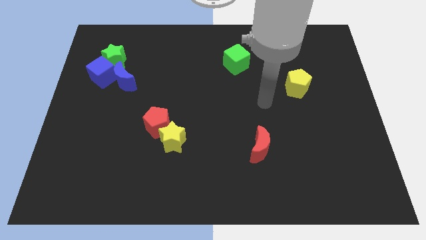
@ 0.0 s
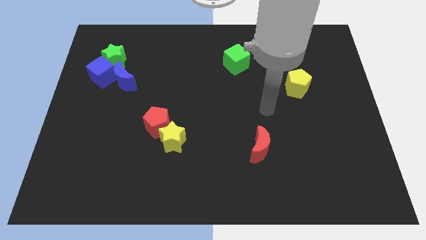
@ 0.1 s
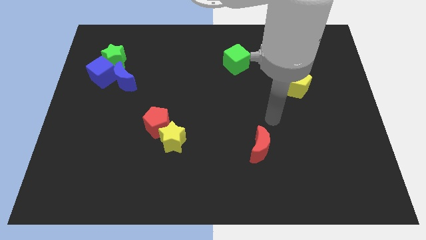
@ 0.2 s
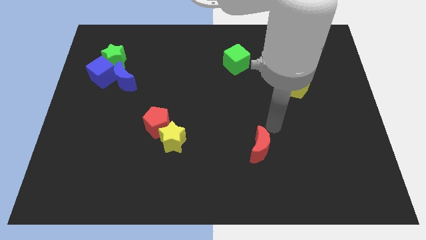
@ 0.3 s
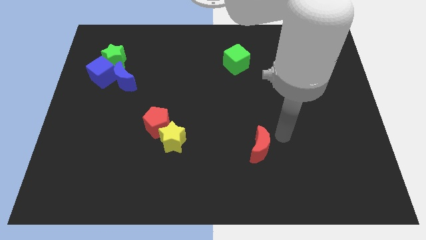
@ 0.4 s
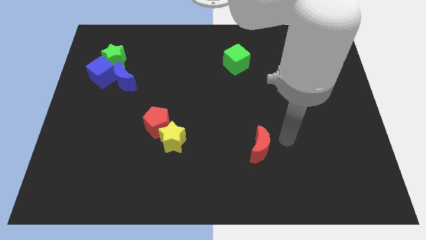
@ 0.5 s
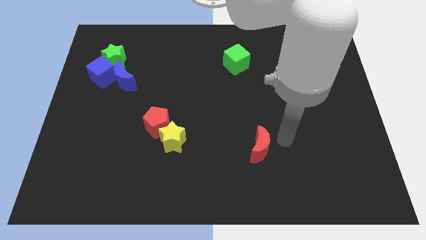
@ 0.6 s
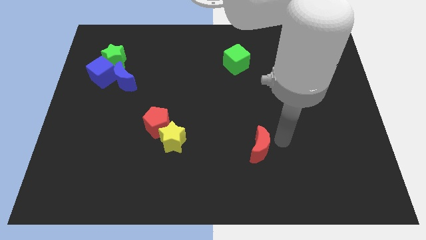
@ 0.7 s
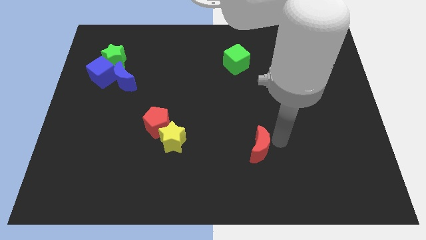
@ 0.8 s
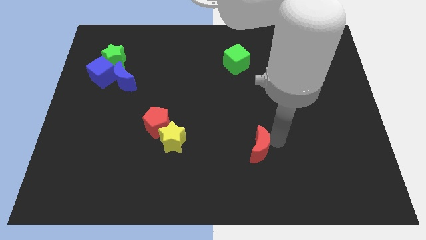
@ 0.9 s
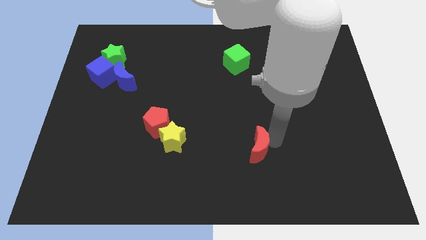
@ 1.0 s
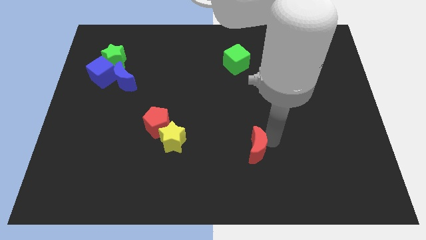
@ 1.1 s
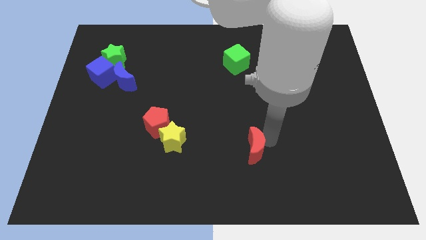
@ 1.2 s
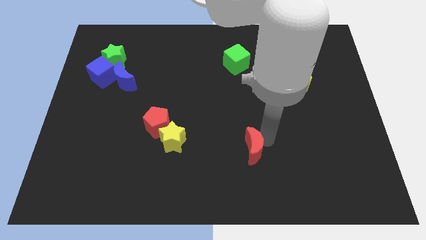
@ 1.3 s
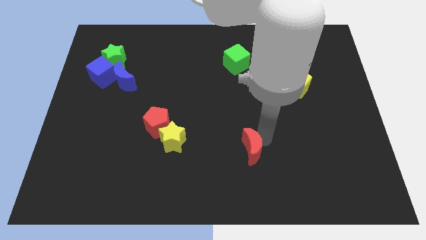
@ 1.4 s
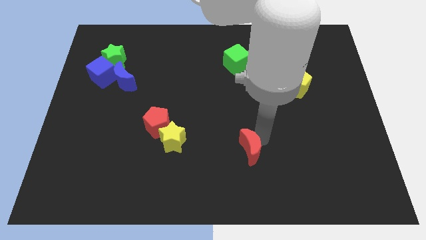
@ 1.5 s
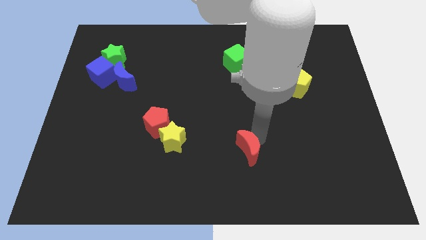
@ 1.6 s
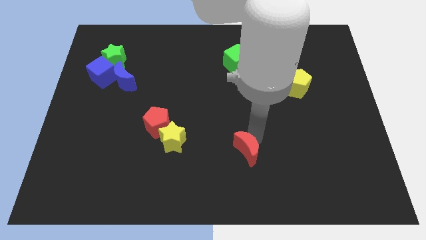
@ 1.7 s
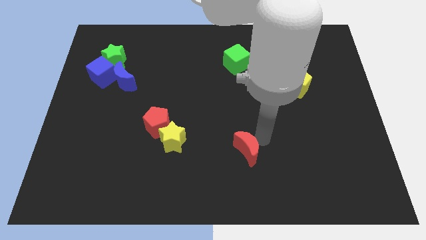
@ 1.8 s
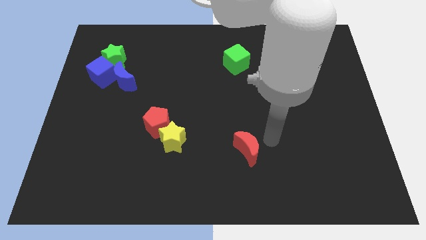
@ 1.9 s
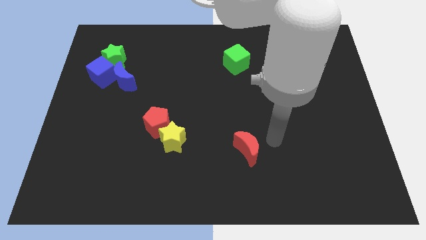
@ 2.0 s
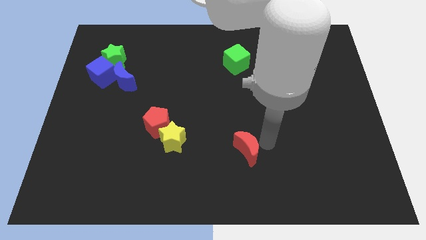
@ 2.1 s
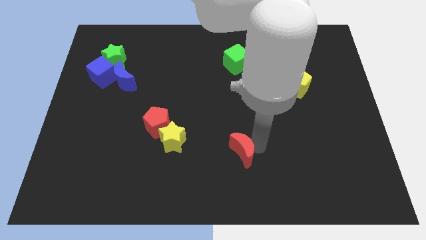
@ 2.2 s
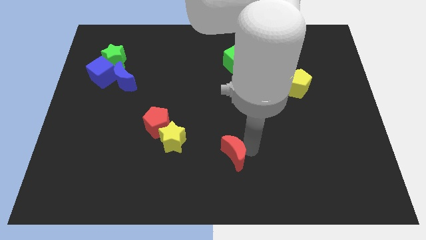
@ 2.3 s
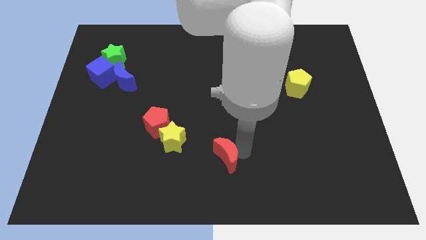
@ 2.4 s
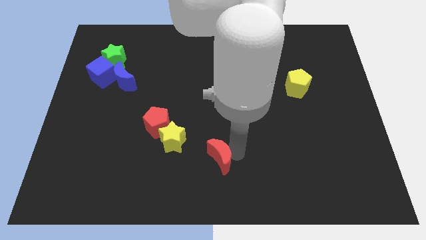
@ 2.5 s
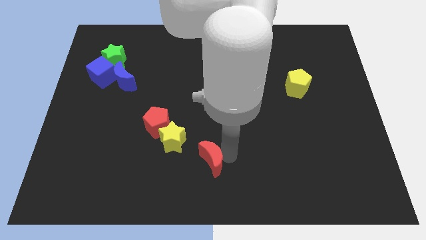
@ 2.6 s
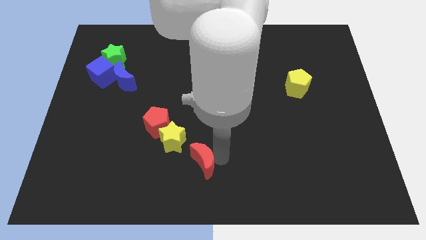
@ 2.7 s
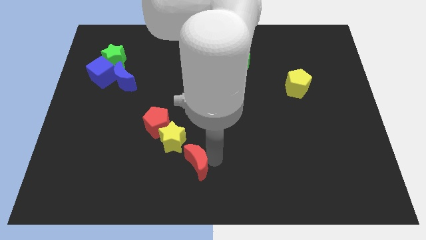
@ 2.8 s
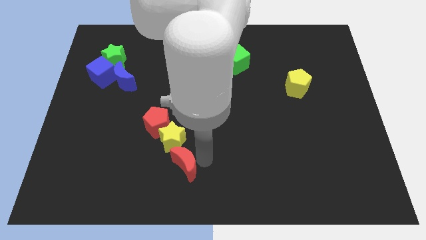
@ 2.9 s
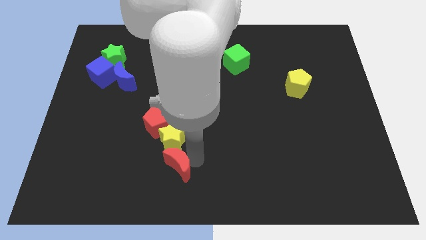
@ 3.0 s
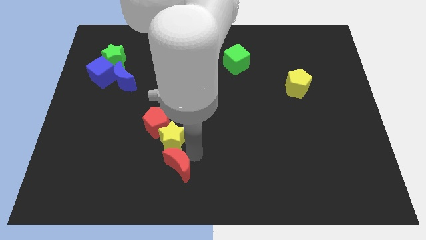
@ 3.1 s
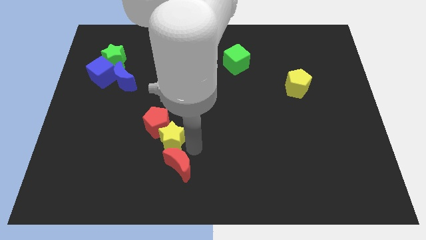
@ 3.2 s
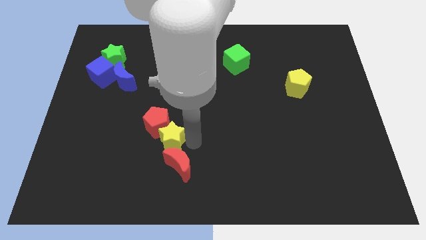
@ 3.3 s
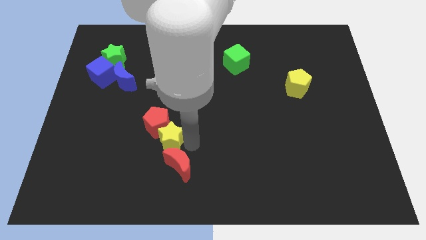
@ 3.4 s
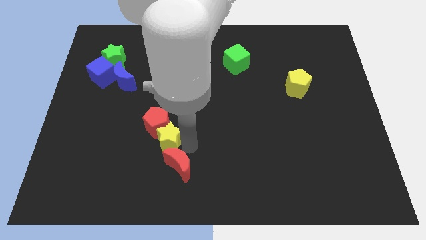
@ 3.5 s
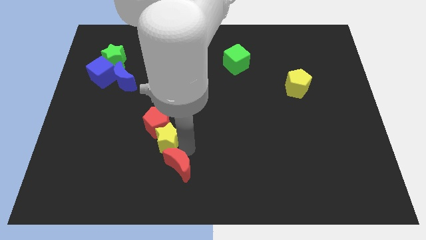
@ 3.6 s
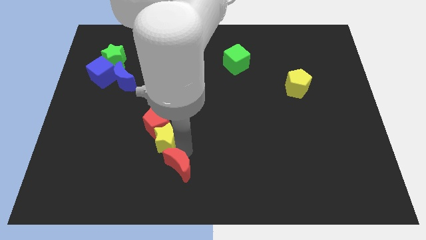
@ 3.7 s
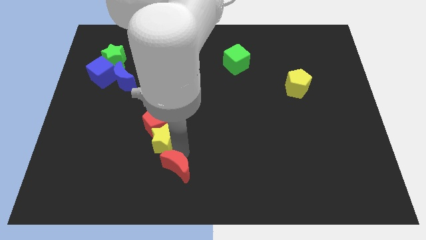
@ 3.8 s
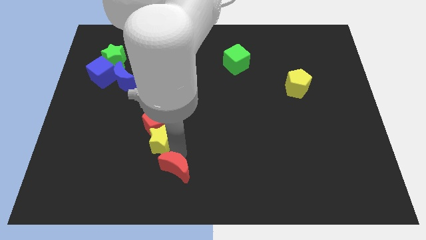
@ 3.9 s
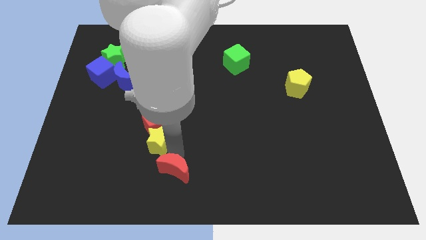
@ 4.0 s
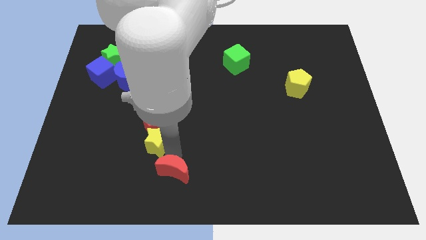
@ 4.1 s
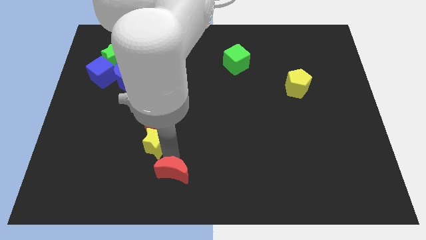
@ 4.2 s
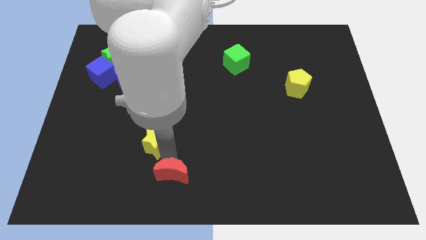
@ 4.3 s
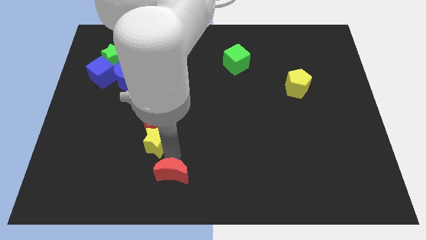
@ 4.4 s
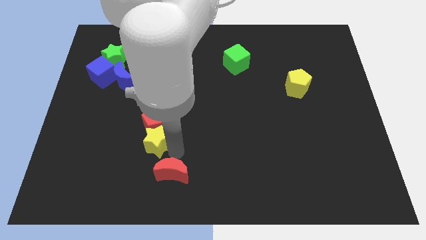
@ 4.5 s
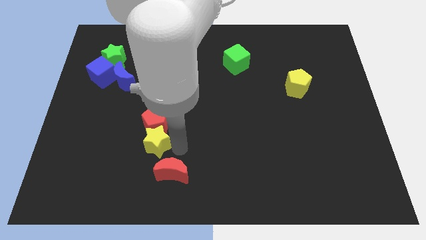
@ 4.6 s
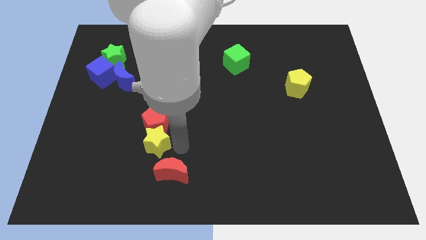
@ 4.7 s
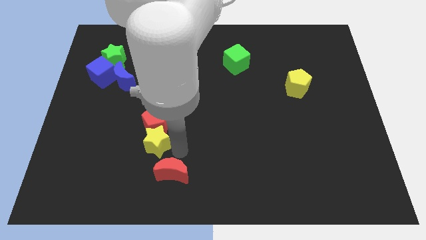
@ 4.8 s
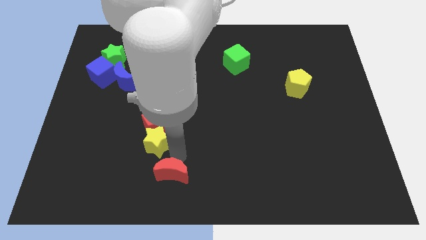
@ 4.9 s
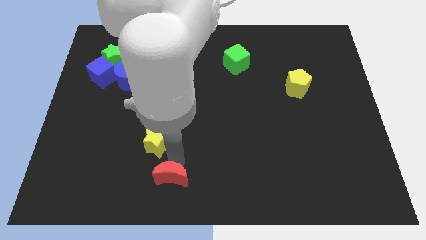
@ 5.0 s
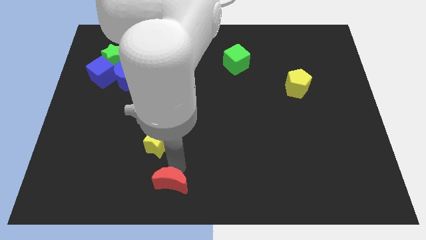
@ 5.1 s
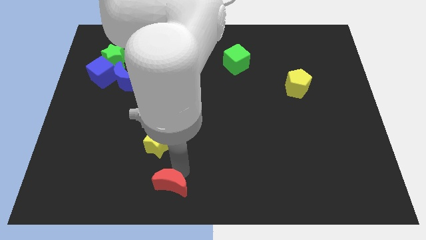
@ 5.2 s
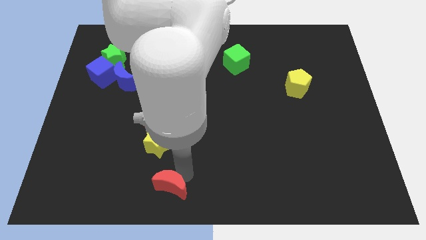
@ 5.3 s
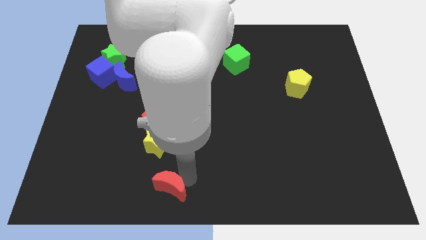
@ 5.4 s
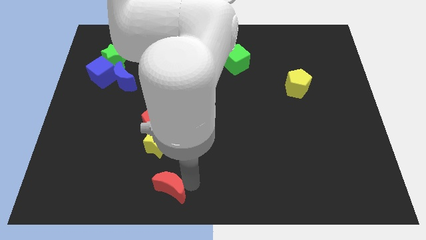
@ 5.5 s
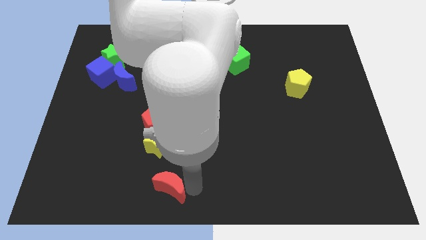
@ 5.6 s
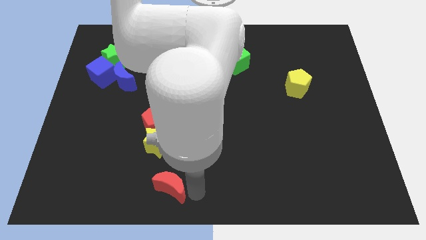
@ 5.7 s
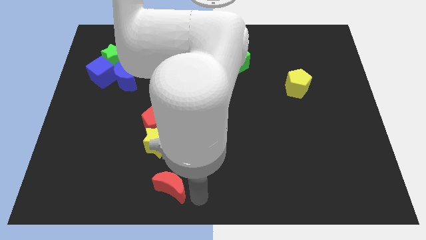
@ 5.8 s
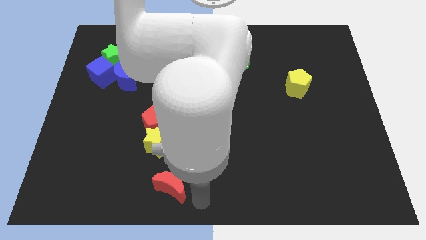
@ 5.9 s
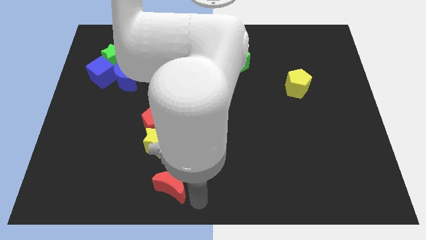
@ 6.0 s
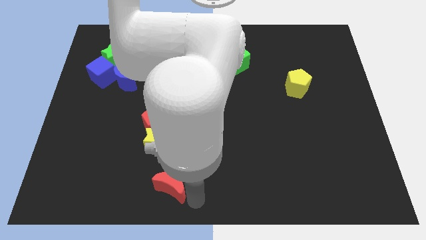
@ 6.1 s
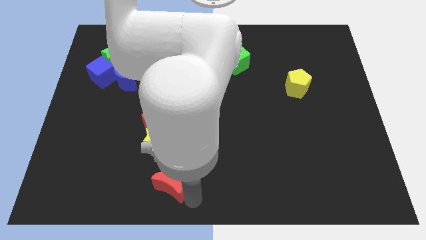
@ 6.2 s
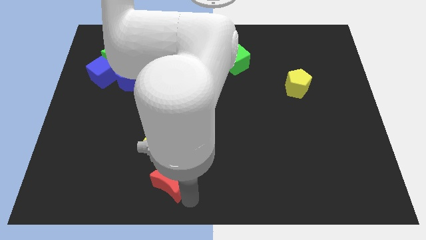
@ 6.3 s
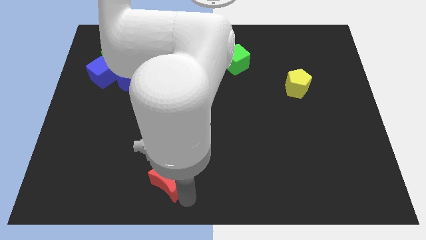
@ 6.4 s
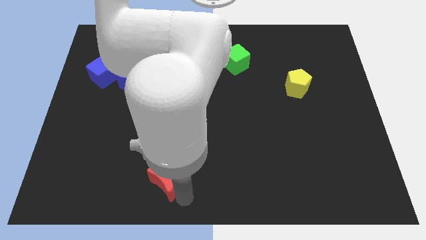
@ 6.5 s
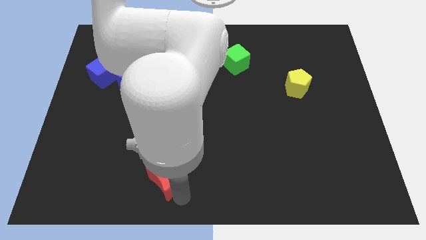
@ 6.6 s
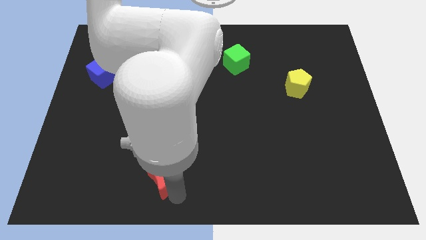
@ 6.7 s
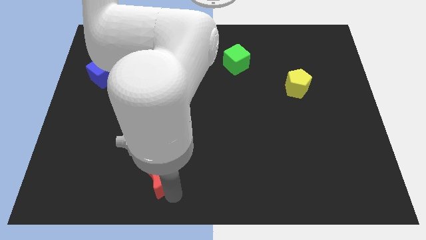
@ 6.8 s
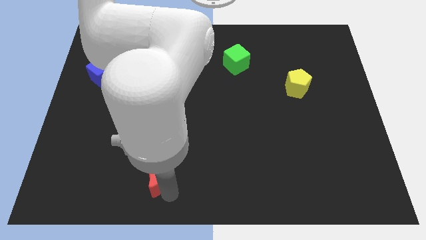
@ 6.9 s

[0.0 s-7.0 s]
push the red moon left

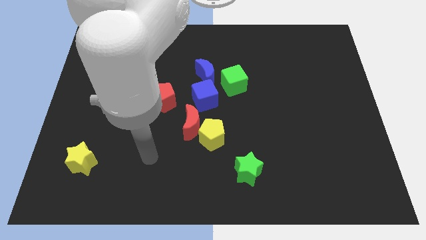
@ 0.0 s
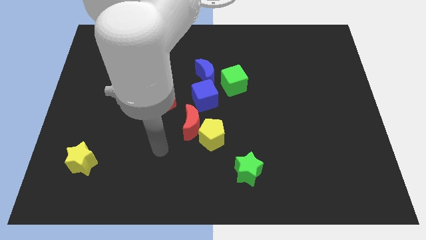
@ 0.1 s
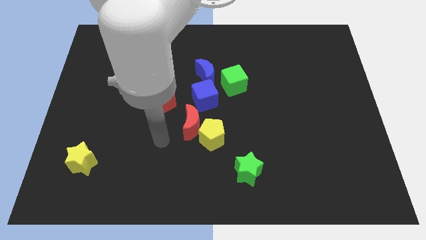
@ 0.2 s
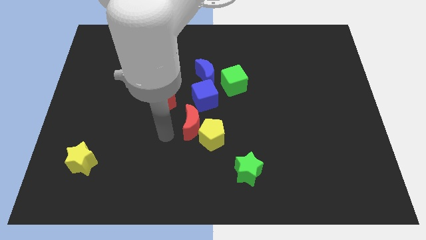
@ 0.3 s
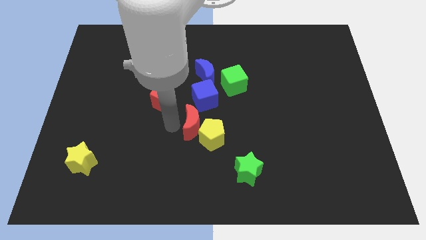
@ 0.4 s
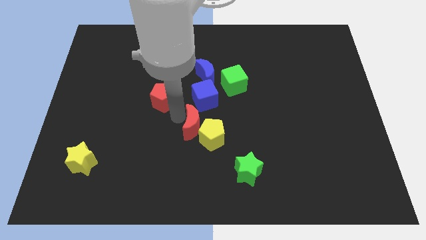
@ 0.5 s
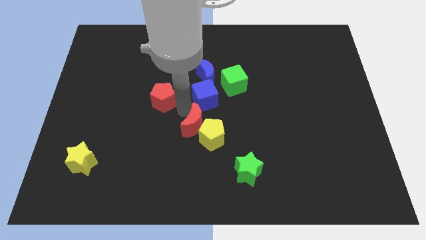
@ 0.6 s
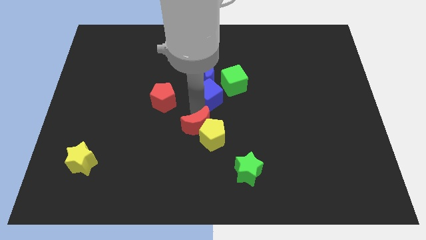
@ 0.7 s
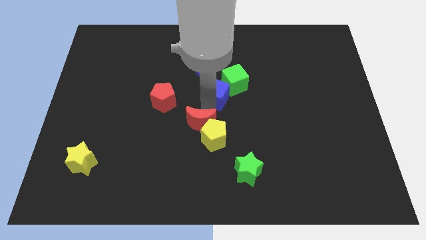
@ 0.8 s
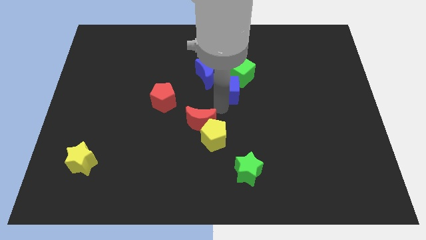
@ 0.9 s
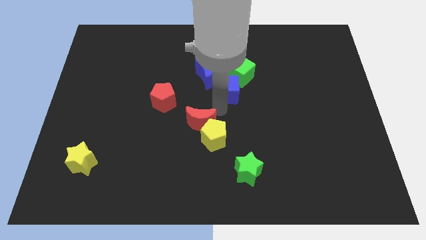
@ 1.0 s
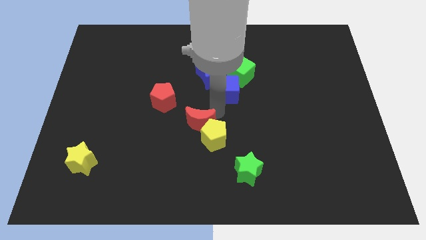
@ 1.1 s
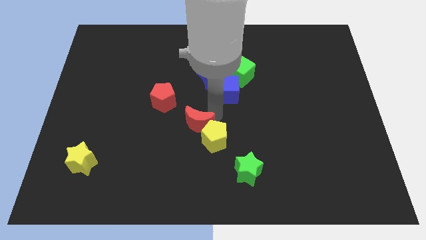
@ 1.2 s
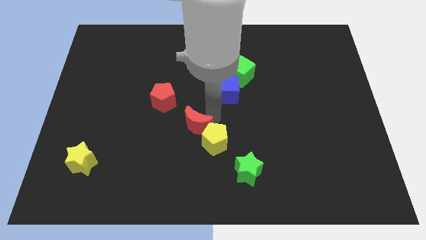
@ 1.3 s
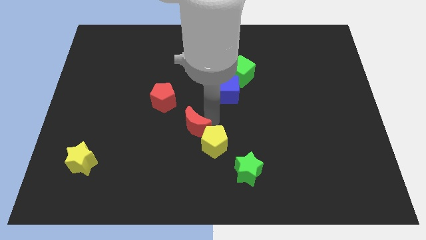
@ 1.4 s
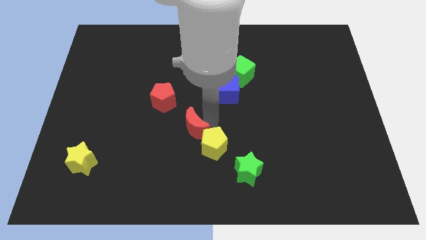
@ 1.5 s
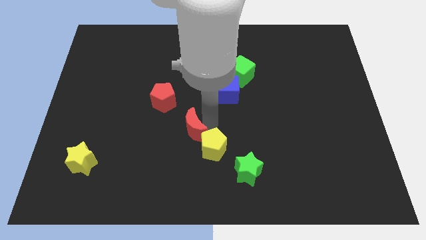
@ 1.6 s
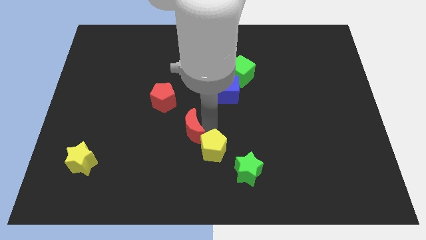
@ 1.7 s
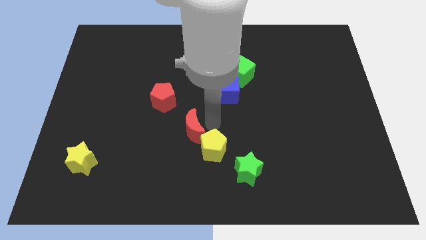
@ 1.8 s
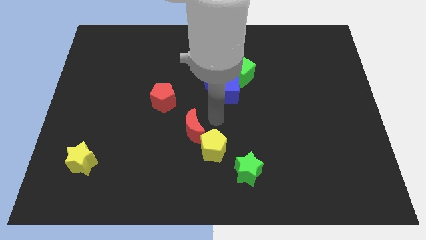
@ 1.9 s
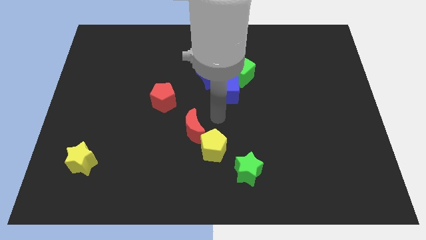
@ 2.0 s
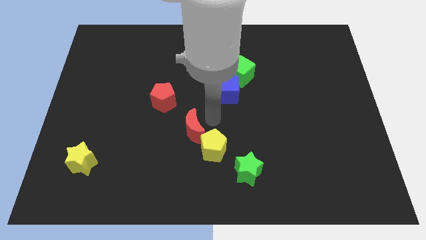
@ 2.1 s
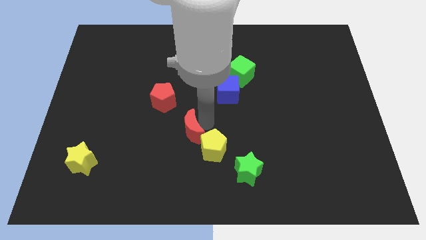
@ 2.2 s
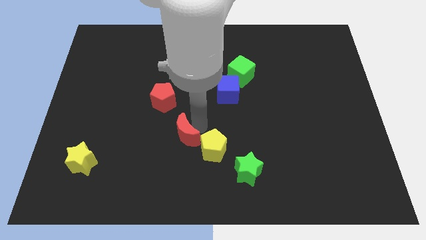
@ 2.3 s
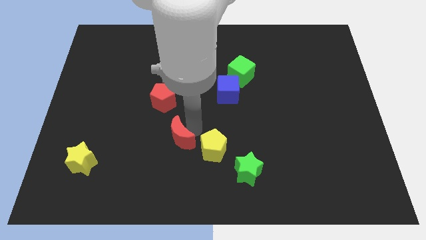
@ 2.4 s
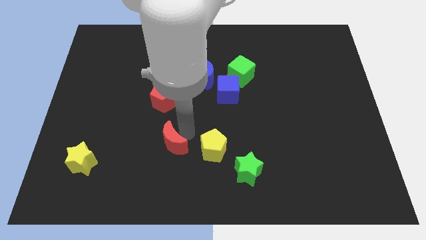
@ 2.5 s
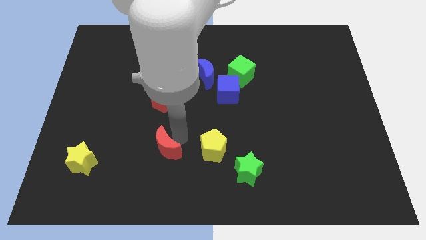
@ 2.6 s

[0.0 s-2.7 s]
slide the red moon a bit downwards and to the left
